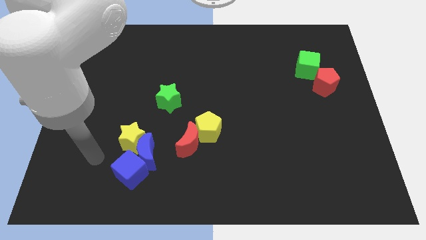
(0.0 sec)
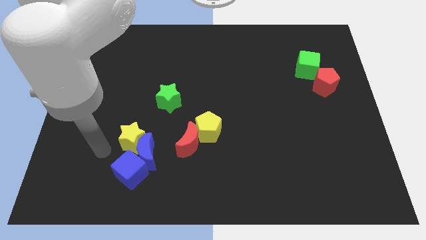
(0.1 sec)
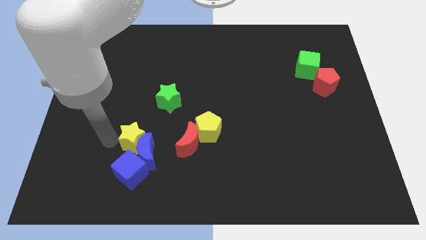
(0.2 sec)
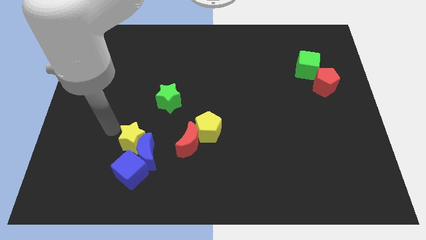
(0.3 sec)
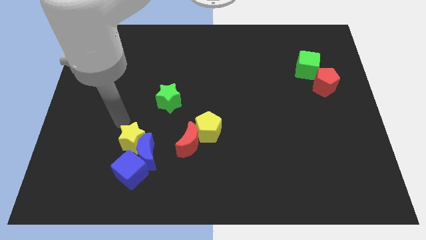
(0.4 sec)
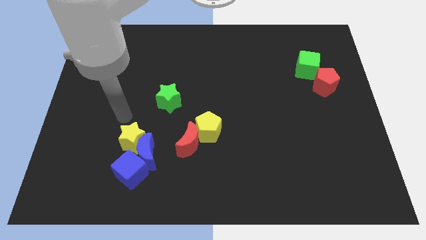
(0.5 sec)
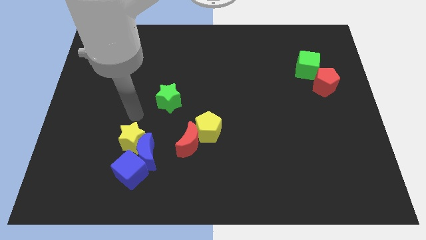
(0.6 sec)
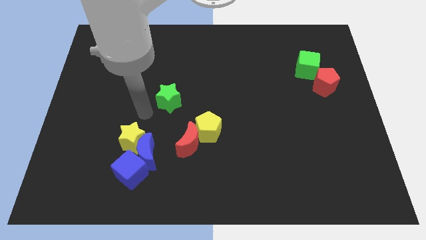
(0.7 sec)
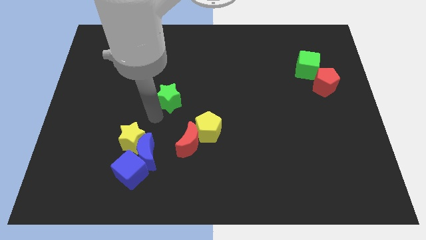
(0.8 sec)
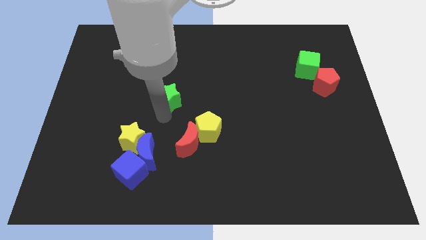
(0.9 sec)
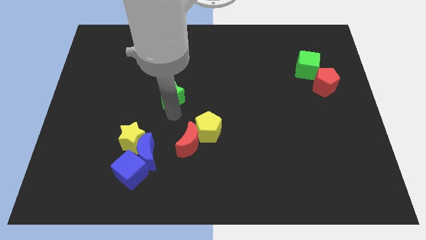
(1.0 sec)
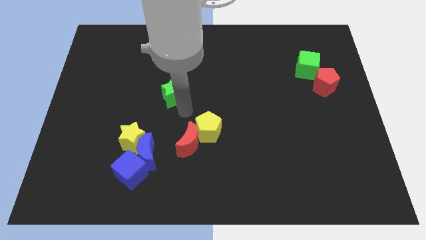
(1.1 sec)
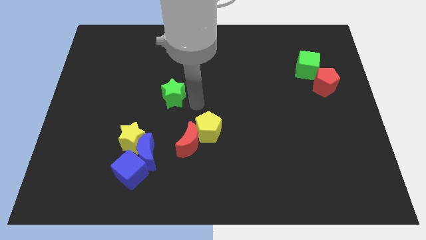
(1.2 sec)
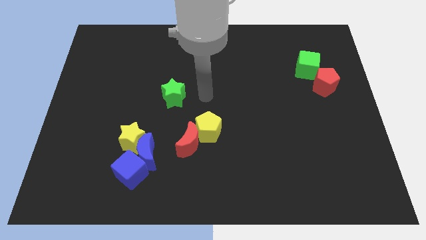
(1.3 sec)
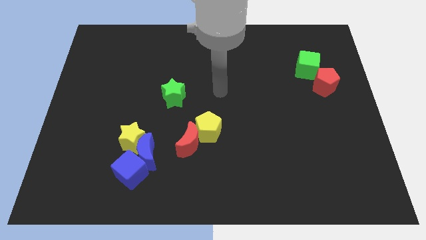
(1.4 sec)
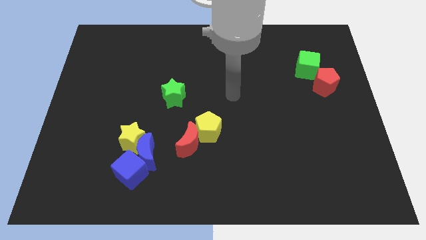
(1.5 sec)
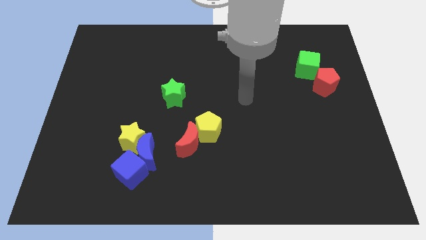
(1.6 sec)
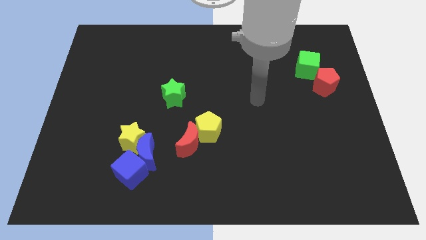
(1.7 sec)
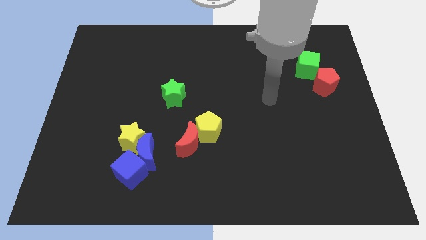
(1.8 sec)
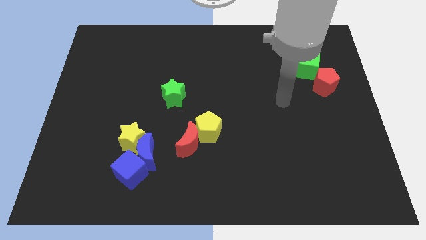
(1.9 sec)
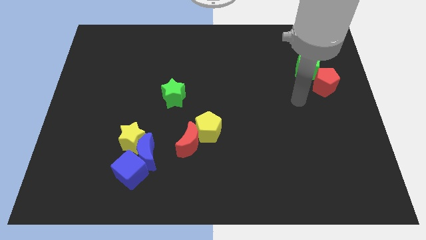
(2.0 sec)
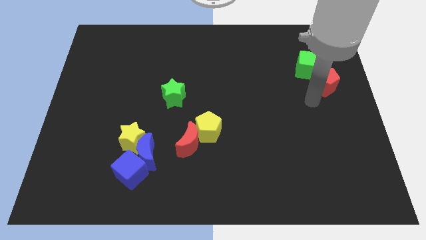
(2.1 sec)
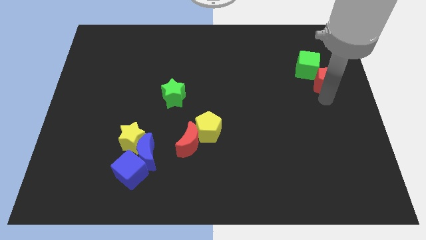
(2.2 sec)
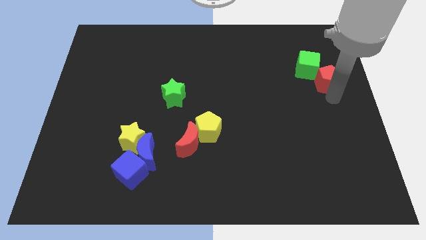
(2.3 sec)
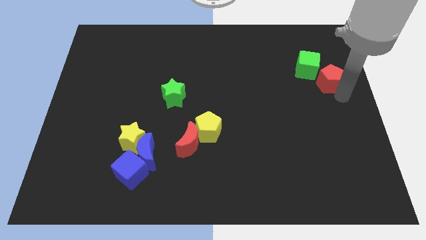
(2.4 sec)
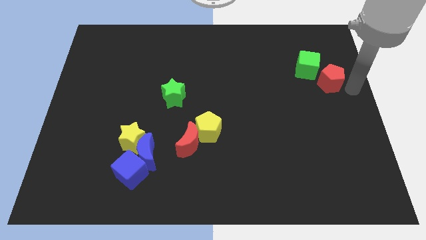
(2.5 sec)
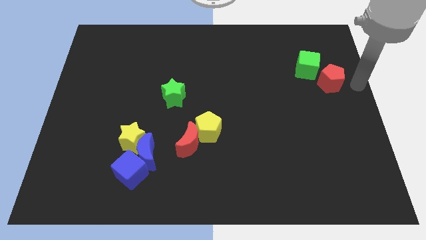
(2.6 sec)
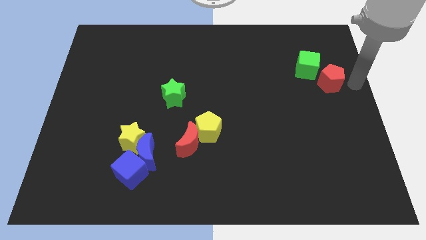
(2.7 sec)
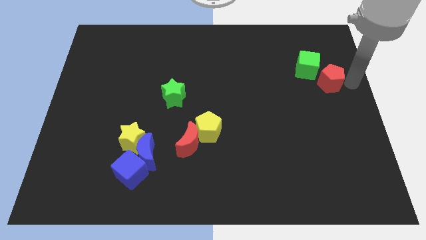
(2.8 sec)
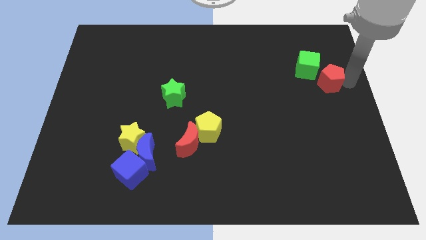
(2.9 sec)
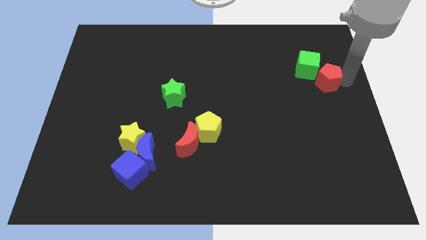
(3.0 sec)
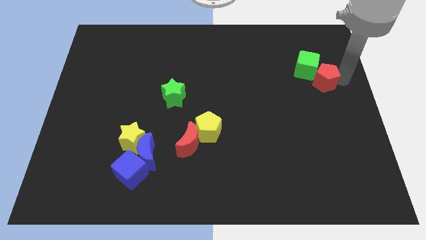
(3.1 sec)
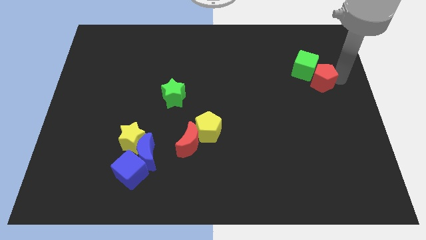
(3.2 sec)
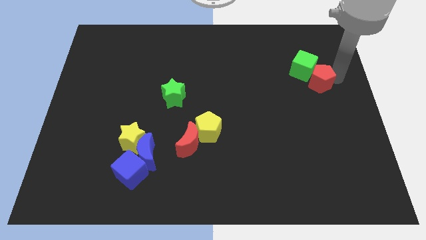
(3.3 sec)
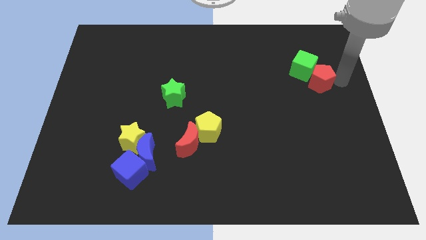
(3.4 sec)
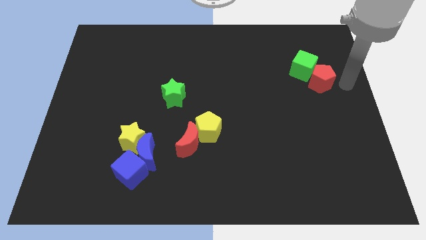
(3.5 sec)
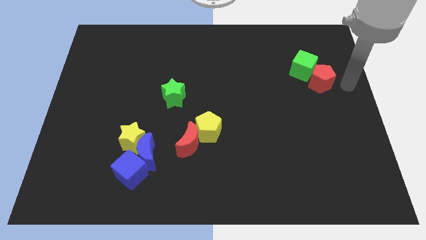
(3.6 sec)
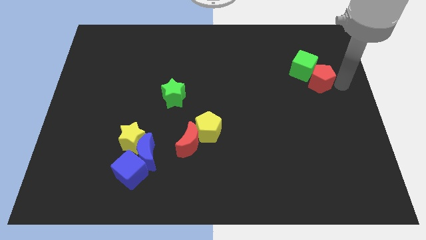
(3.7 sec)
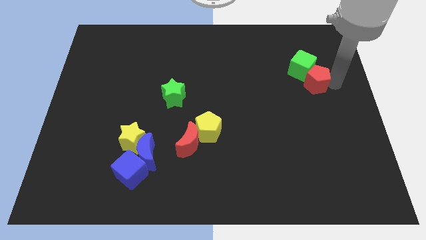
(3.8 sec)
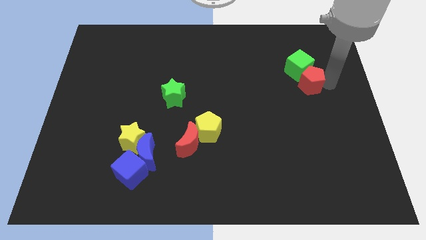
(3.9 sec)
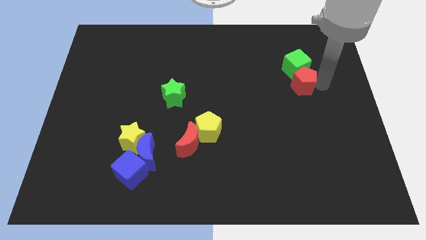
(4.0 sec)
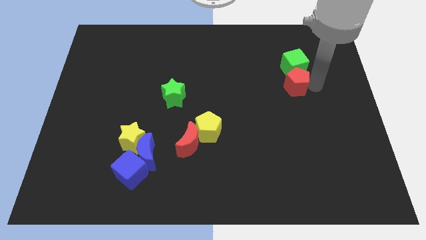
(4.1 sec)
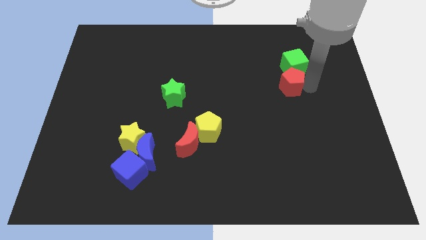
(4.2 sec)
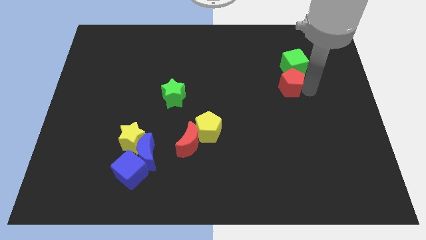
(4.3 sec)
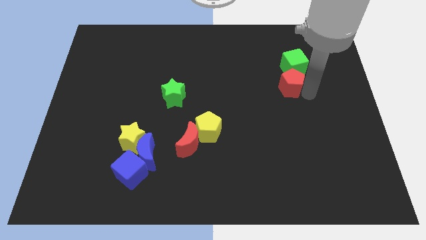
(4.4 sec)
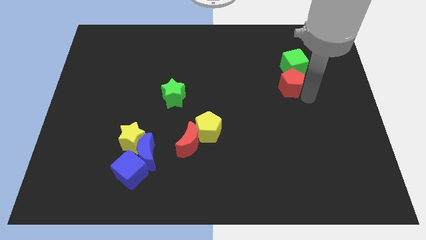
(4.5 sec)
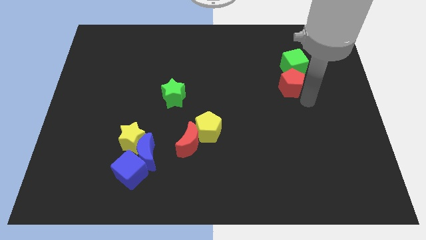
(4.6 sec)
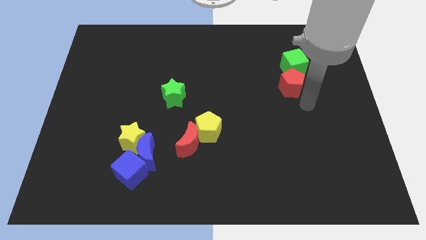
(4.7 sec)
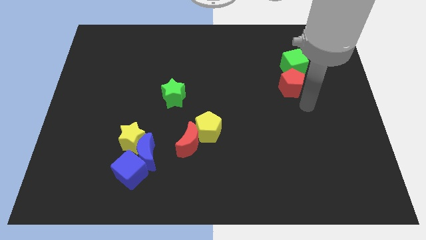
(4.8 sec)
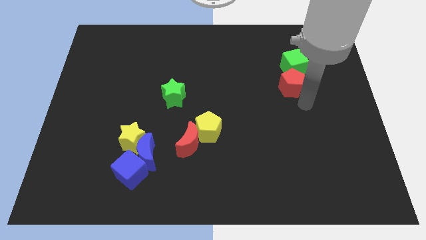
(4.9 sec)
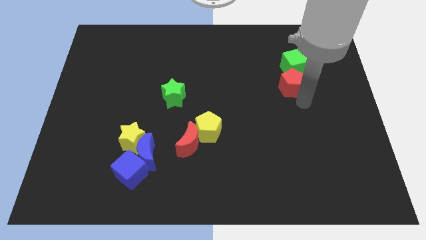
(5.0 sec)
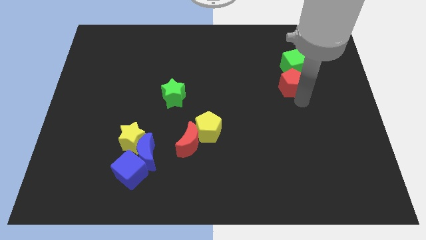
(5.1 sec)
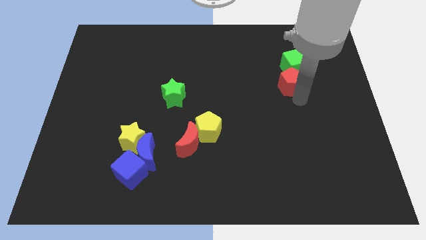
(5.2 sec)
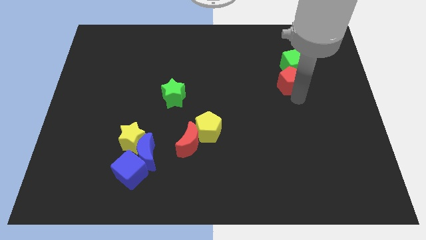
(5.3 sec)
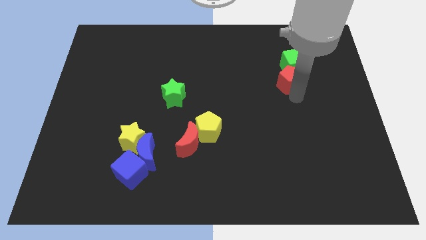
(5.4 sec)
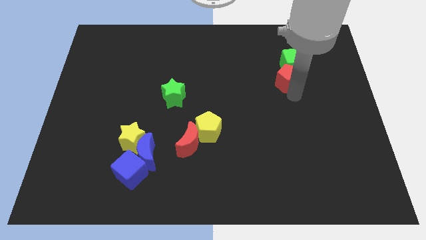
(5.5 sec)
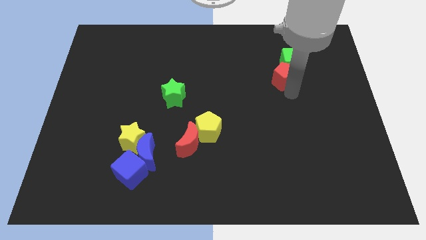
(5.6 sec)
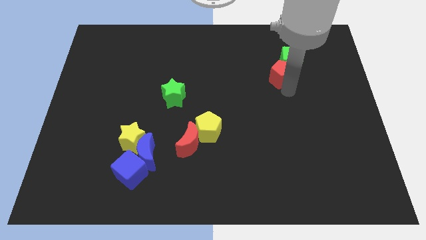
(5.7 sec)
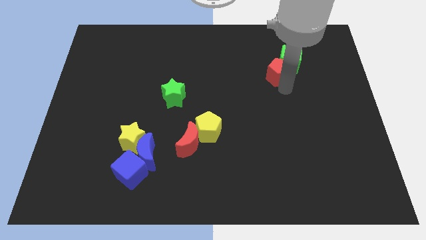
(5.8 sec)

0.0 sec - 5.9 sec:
push the red pentagon to the left side of the green cube

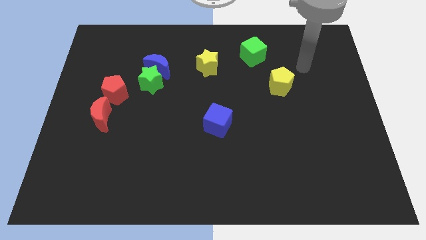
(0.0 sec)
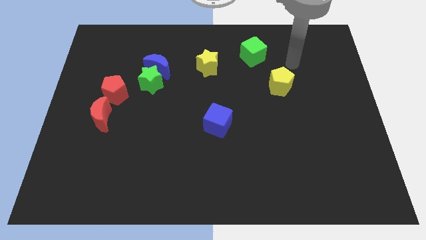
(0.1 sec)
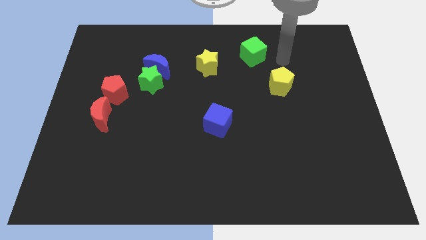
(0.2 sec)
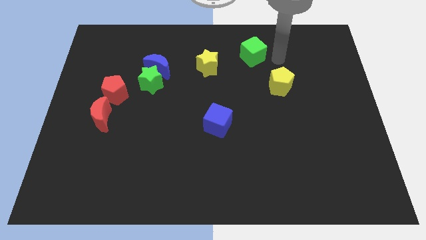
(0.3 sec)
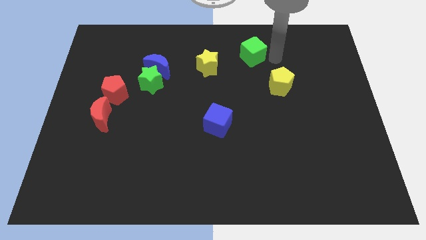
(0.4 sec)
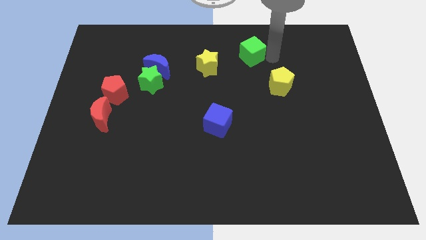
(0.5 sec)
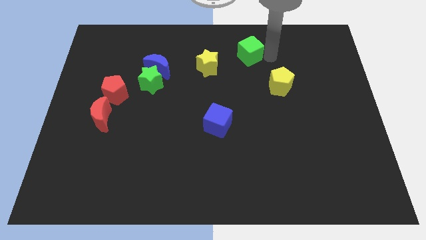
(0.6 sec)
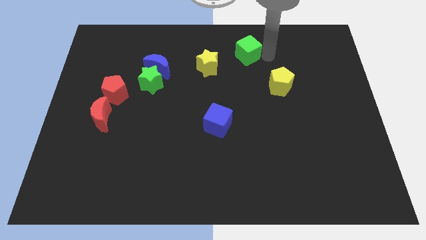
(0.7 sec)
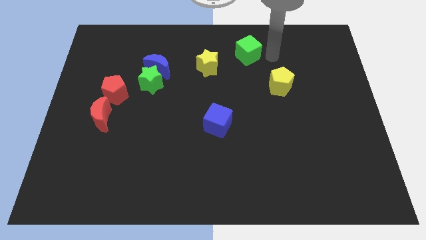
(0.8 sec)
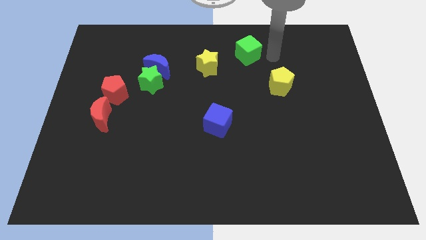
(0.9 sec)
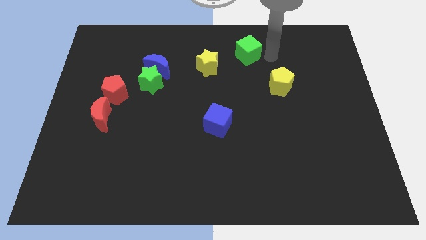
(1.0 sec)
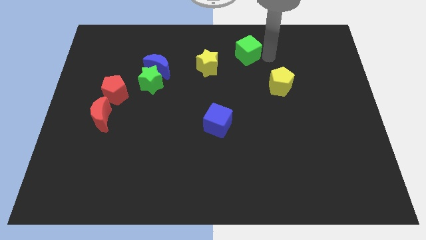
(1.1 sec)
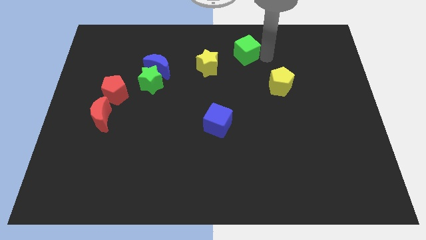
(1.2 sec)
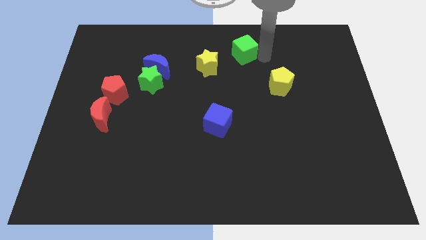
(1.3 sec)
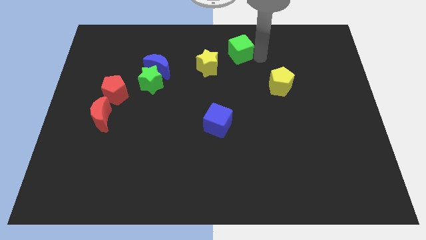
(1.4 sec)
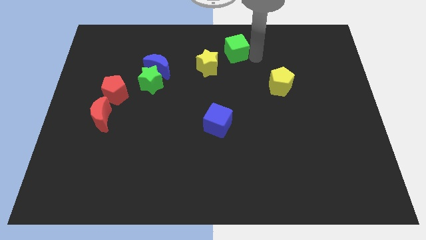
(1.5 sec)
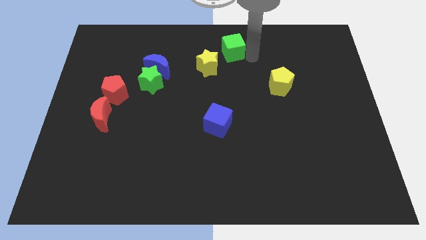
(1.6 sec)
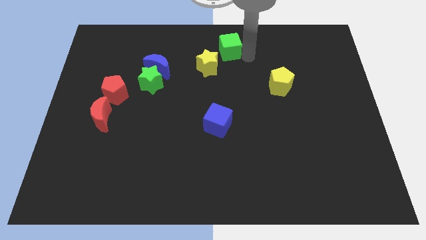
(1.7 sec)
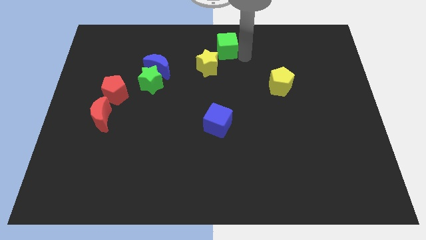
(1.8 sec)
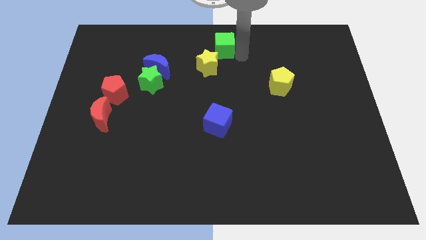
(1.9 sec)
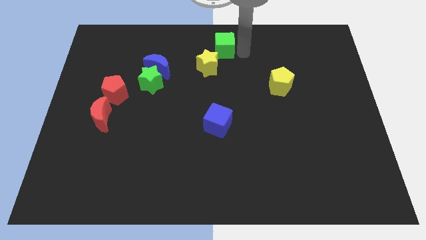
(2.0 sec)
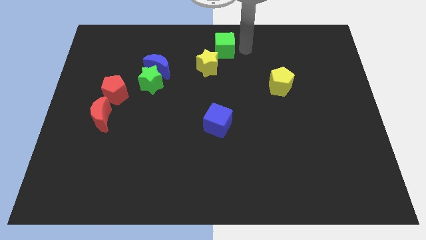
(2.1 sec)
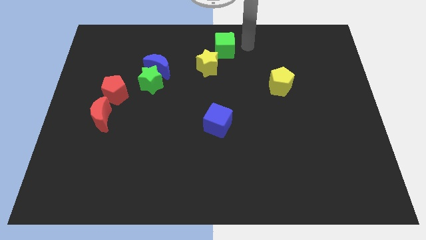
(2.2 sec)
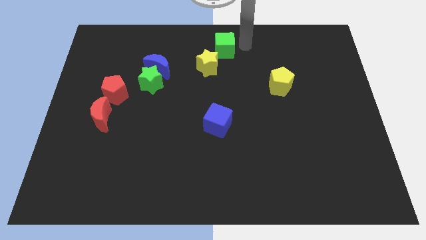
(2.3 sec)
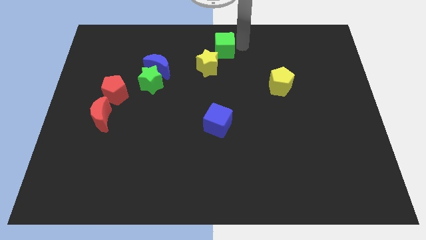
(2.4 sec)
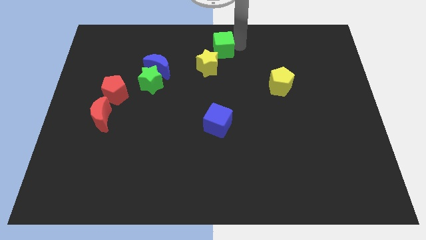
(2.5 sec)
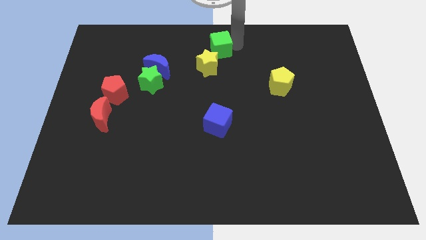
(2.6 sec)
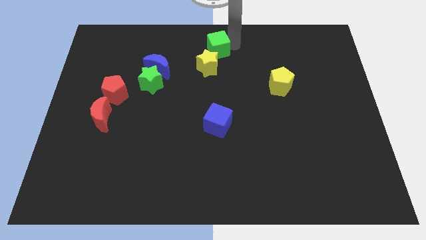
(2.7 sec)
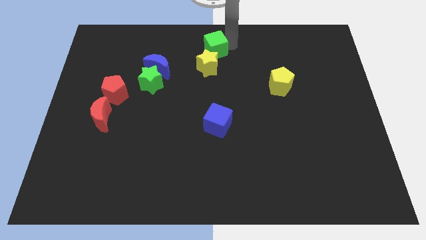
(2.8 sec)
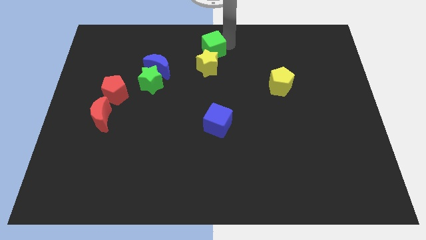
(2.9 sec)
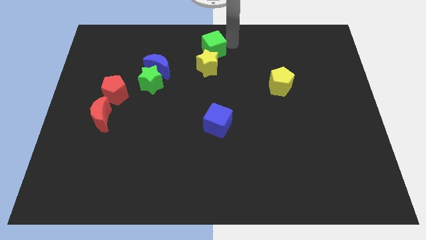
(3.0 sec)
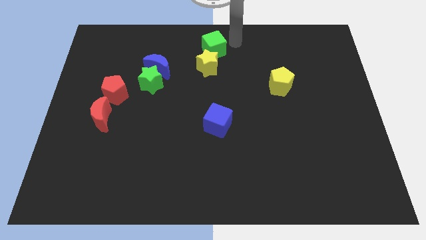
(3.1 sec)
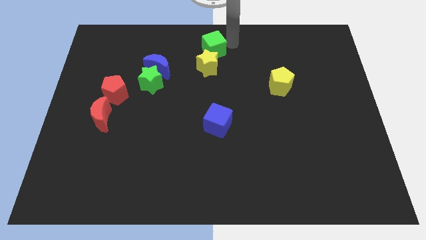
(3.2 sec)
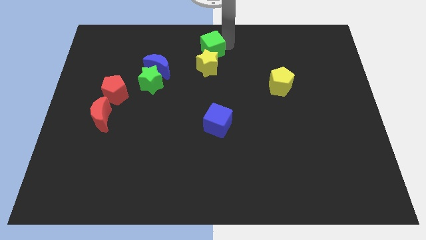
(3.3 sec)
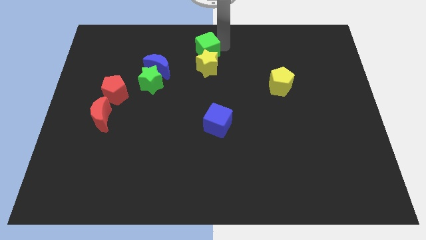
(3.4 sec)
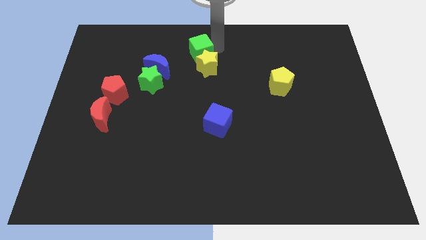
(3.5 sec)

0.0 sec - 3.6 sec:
slide the green cube to the top right side of the blue moon
